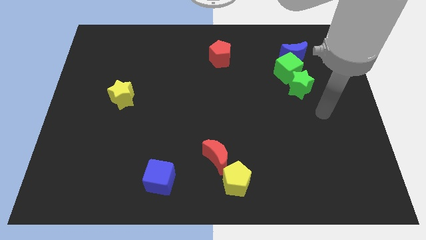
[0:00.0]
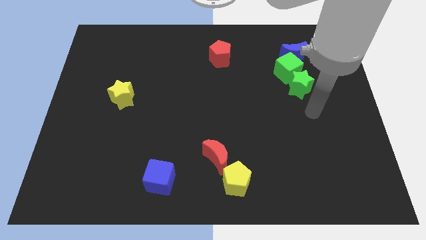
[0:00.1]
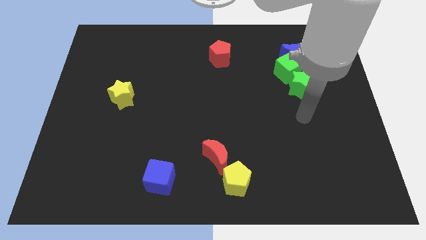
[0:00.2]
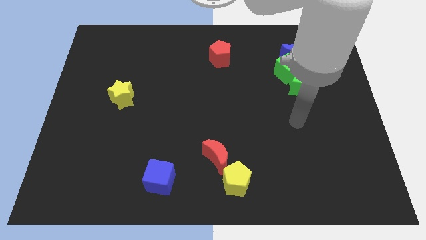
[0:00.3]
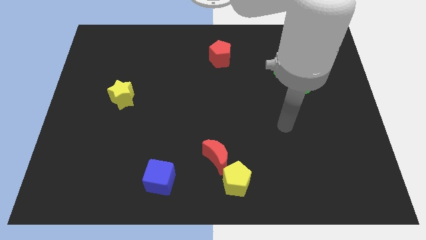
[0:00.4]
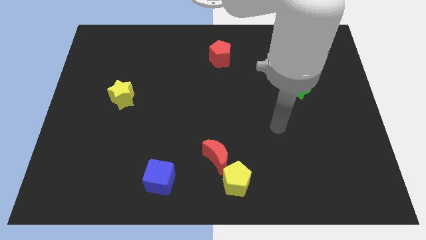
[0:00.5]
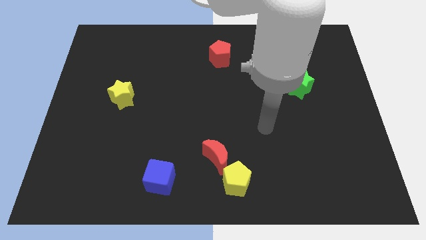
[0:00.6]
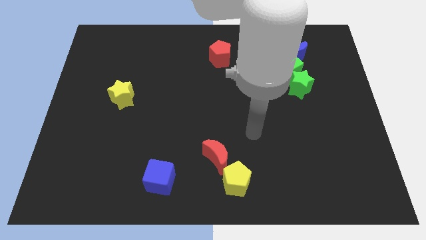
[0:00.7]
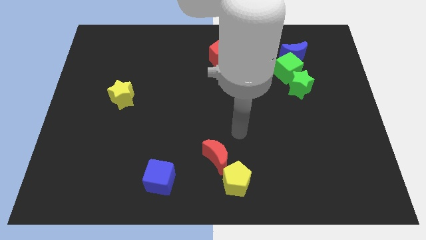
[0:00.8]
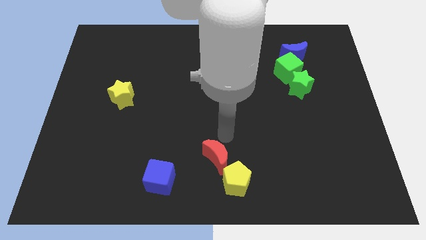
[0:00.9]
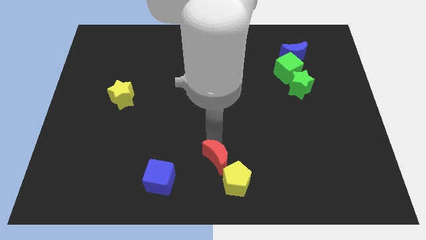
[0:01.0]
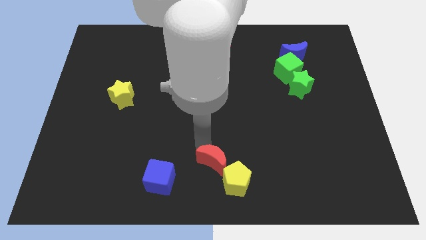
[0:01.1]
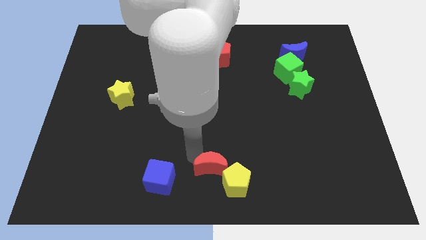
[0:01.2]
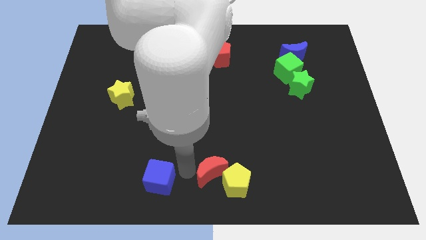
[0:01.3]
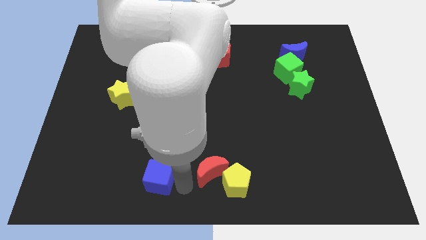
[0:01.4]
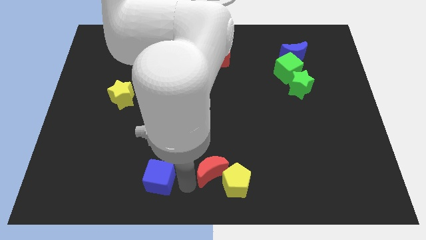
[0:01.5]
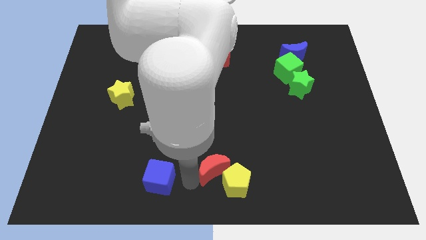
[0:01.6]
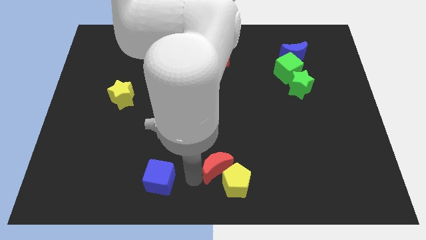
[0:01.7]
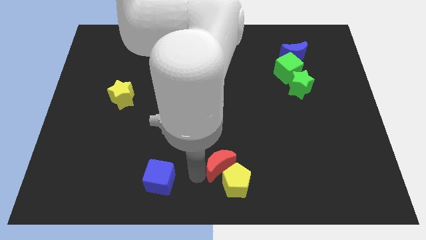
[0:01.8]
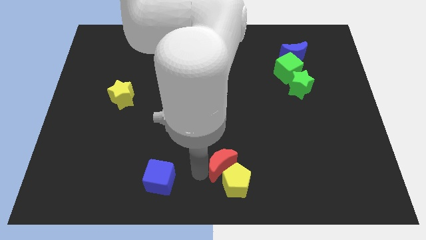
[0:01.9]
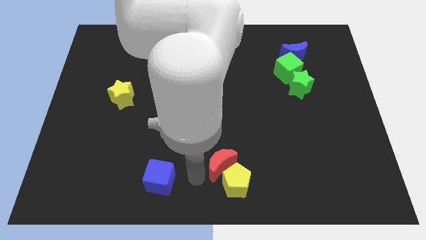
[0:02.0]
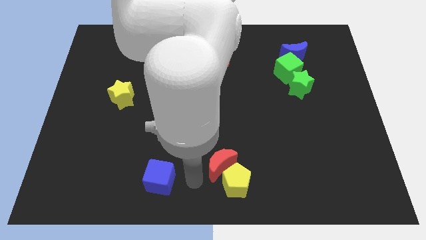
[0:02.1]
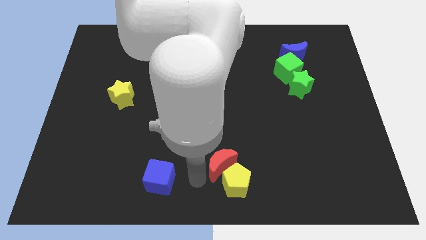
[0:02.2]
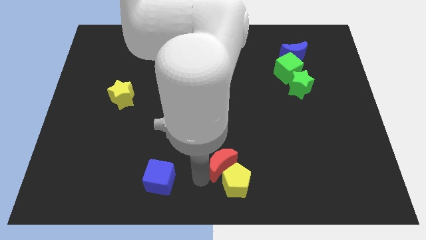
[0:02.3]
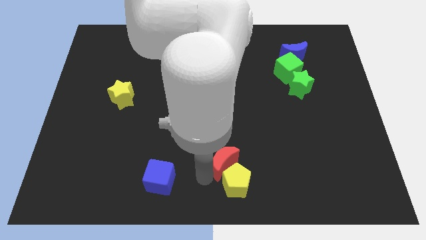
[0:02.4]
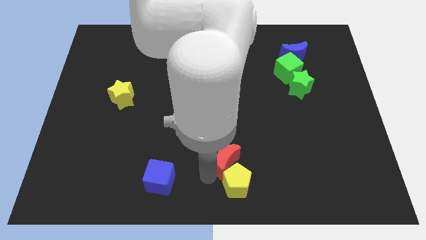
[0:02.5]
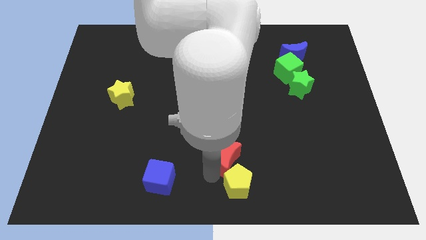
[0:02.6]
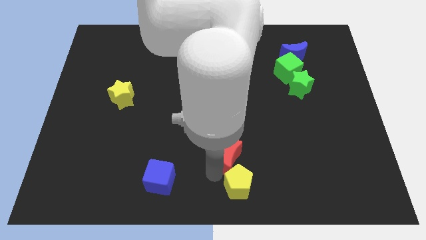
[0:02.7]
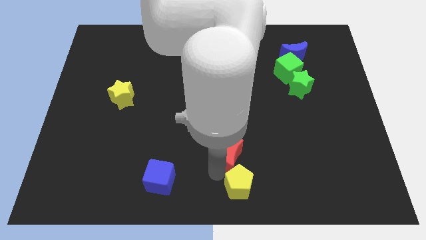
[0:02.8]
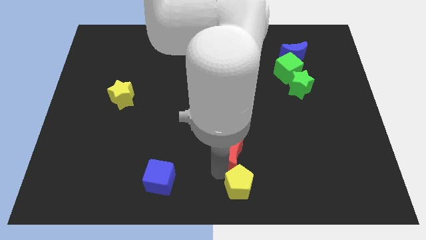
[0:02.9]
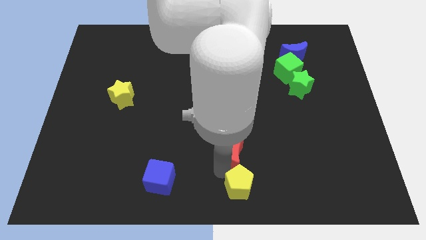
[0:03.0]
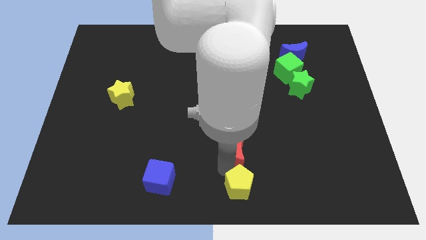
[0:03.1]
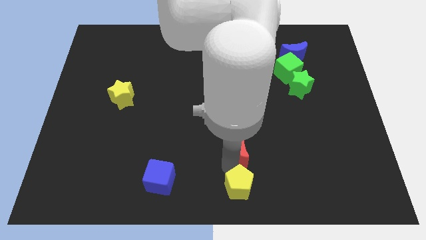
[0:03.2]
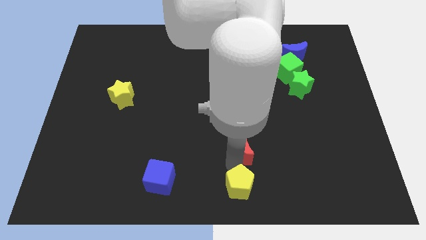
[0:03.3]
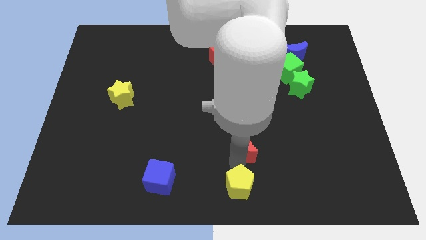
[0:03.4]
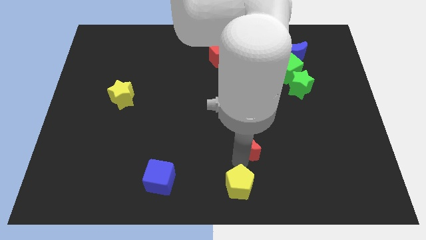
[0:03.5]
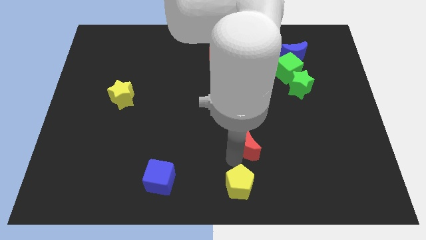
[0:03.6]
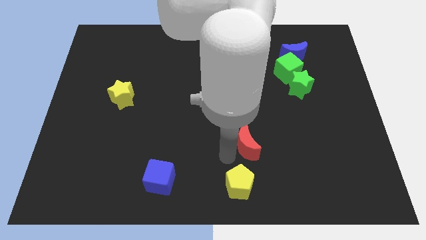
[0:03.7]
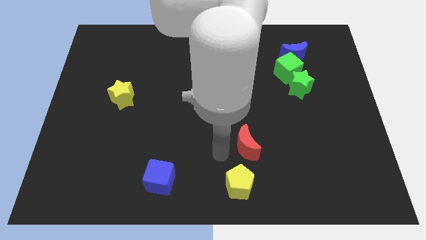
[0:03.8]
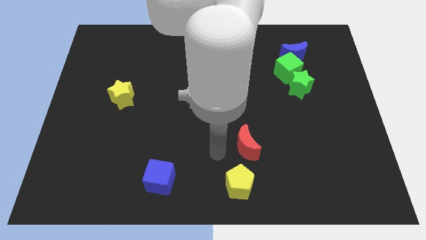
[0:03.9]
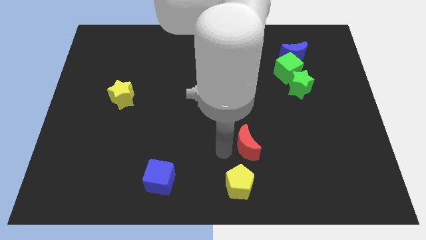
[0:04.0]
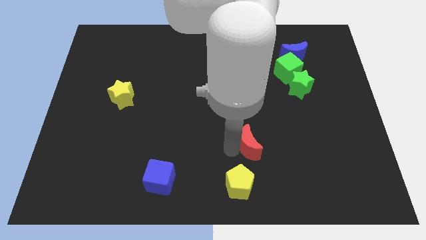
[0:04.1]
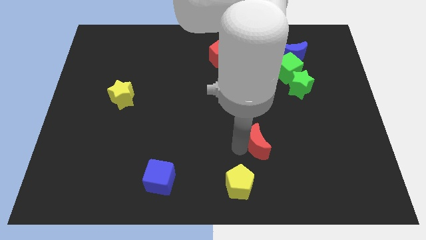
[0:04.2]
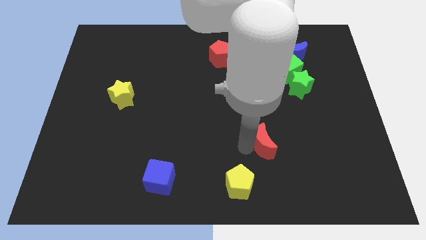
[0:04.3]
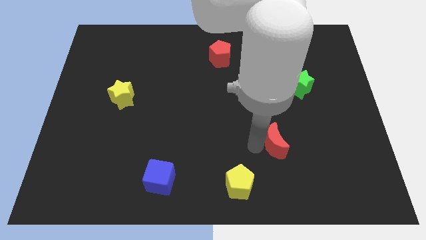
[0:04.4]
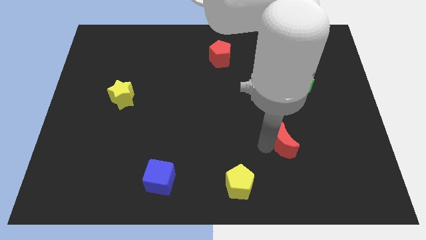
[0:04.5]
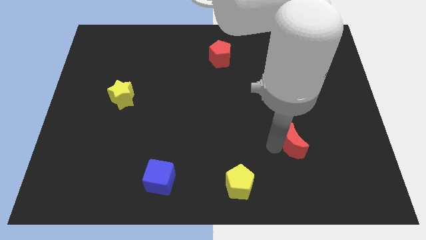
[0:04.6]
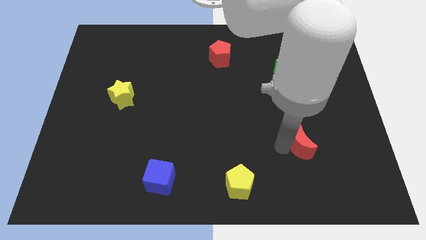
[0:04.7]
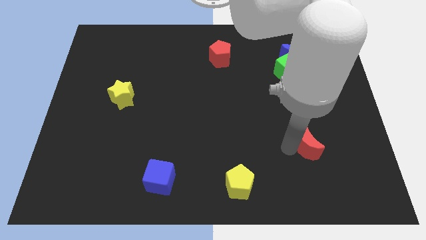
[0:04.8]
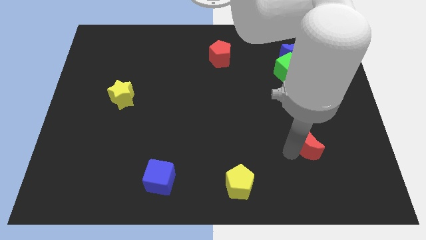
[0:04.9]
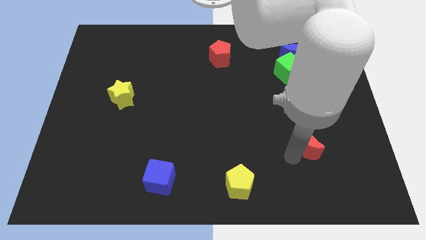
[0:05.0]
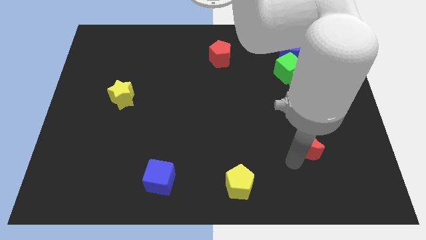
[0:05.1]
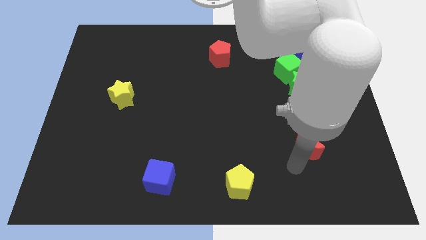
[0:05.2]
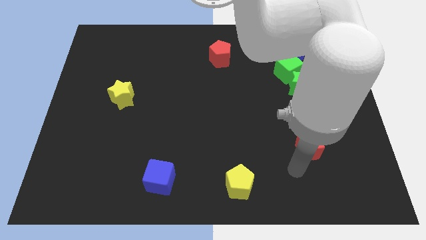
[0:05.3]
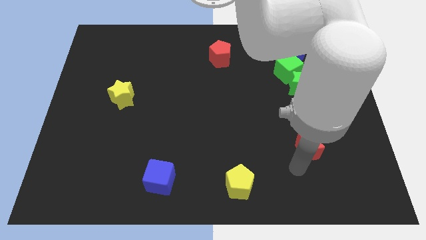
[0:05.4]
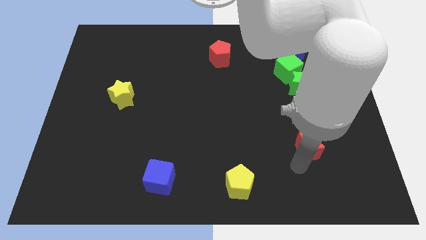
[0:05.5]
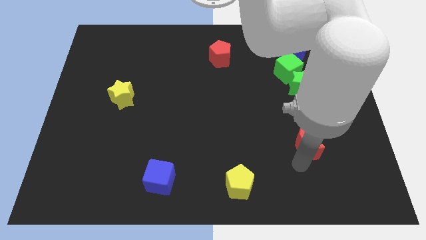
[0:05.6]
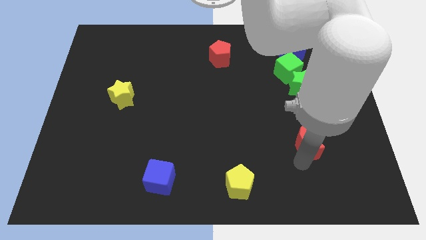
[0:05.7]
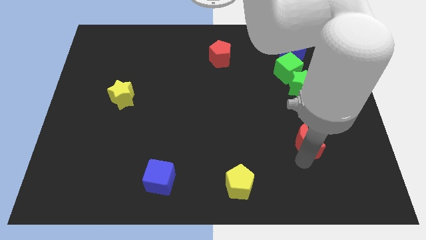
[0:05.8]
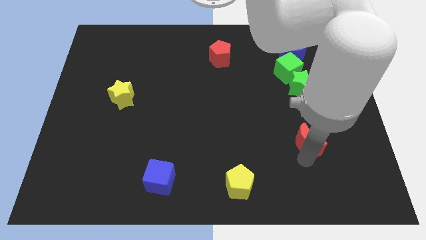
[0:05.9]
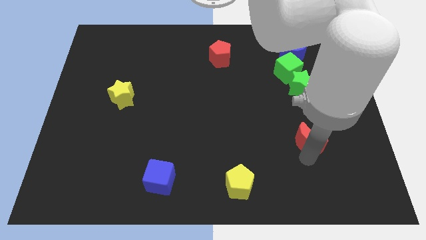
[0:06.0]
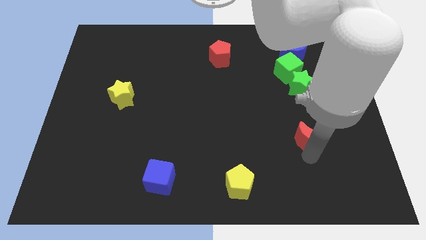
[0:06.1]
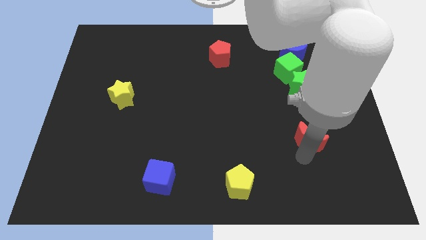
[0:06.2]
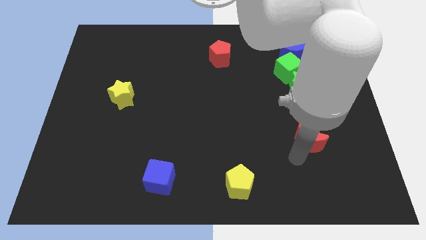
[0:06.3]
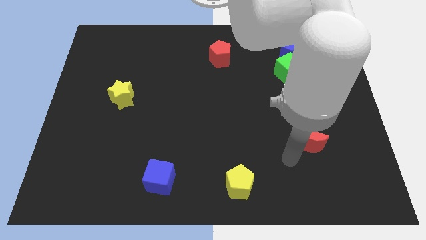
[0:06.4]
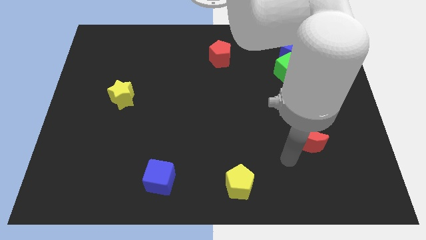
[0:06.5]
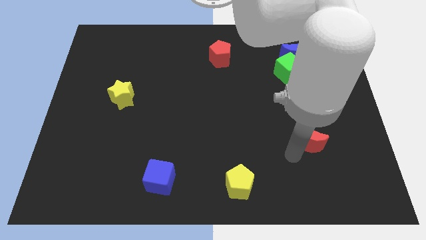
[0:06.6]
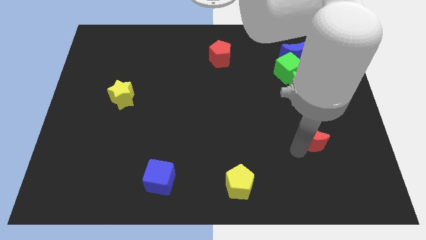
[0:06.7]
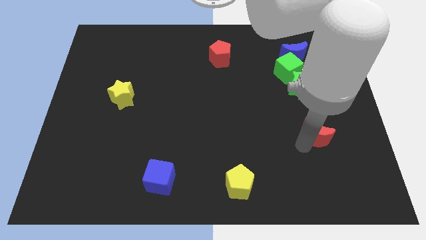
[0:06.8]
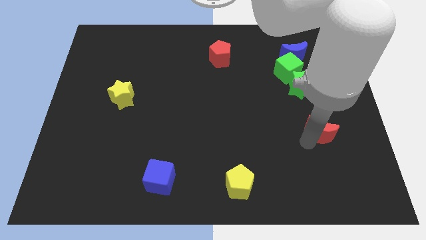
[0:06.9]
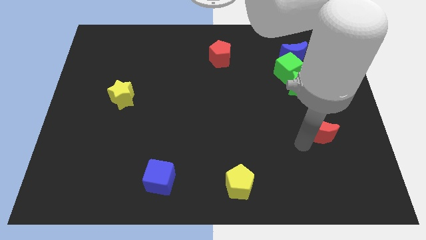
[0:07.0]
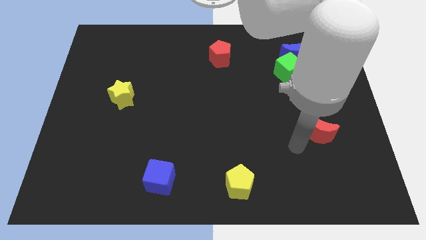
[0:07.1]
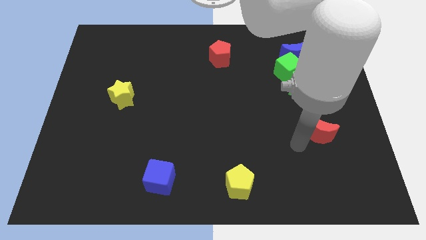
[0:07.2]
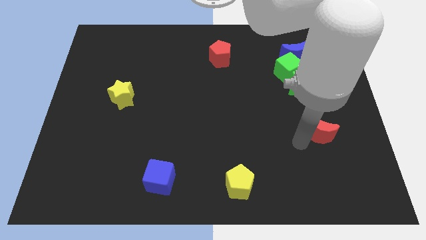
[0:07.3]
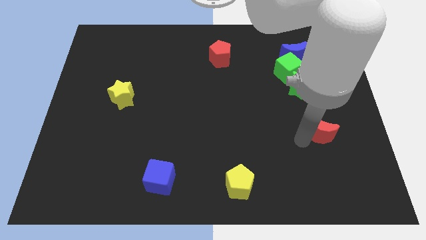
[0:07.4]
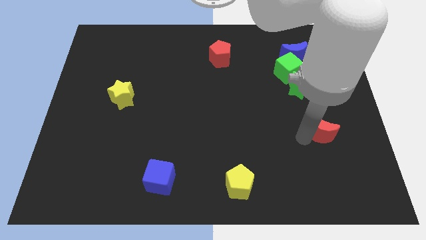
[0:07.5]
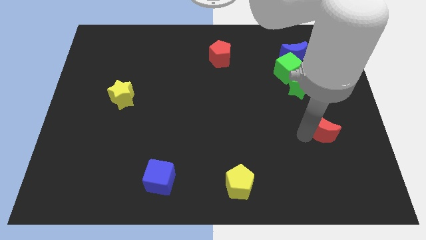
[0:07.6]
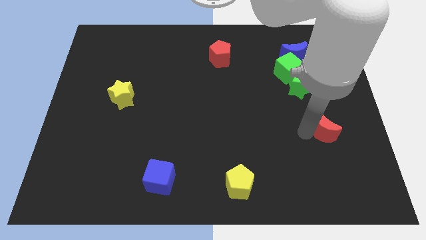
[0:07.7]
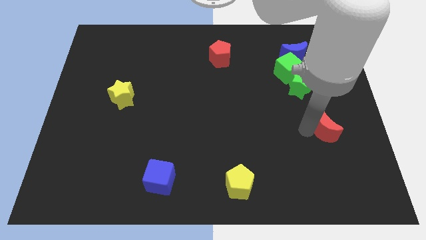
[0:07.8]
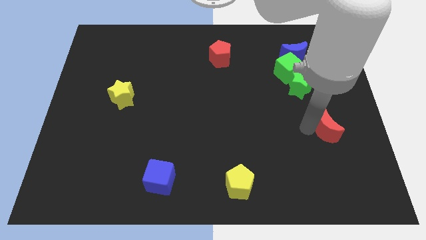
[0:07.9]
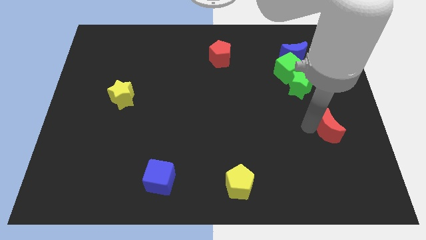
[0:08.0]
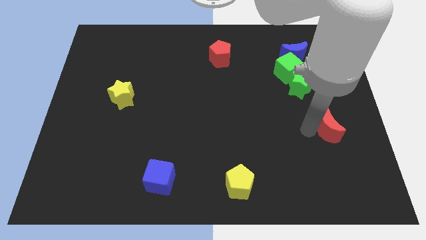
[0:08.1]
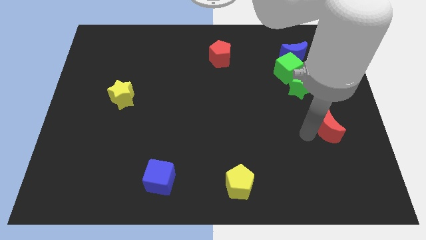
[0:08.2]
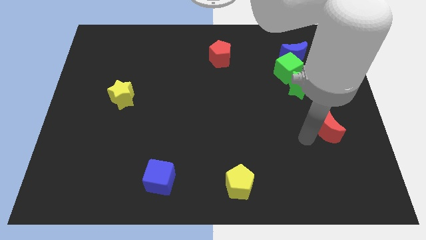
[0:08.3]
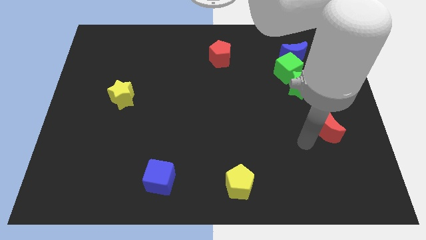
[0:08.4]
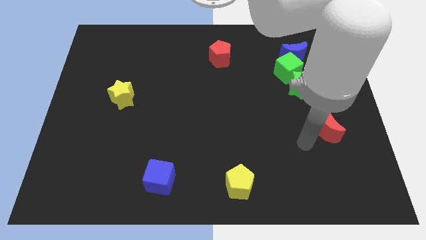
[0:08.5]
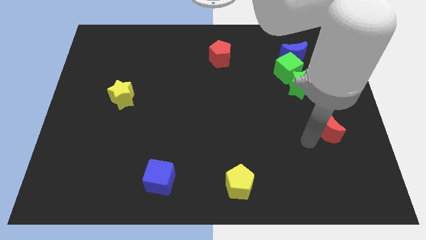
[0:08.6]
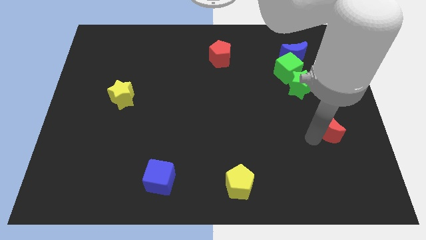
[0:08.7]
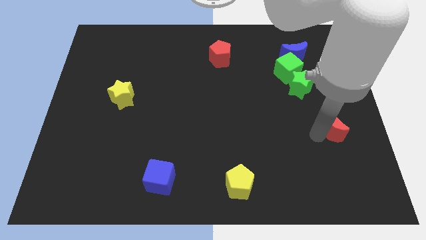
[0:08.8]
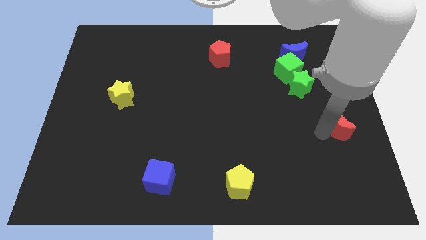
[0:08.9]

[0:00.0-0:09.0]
move the red moon to the center right
